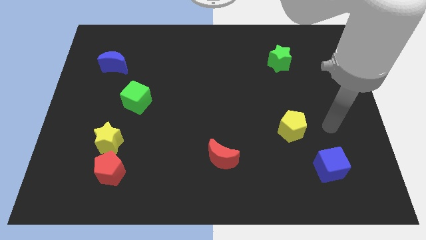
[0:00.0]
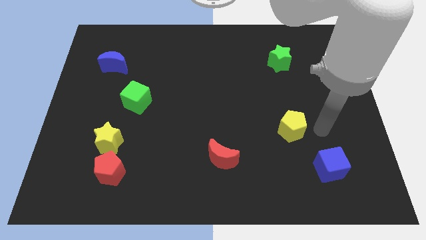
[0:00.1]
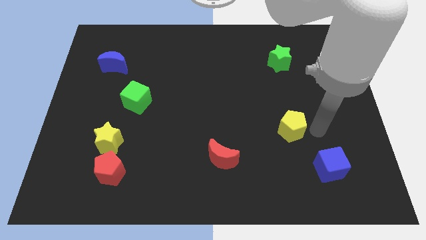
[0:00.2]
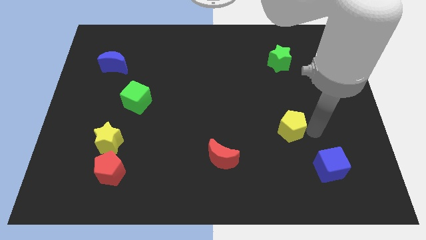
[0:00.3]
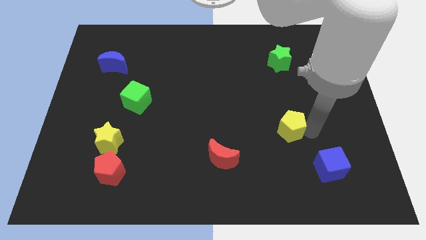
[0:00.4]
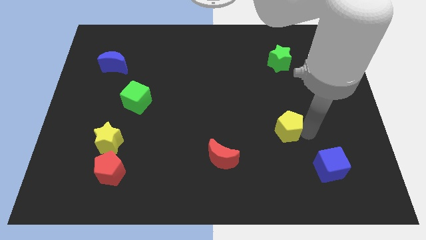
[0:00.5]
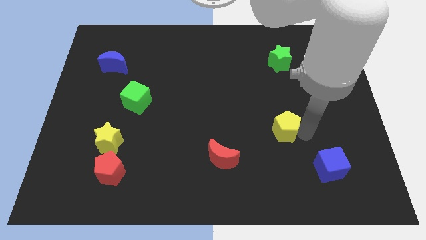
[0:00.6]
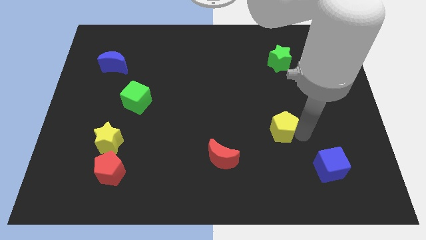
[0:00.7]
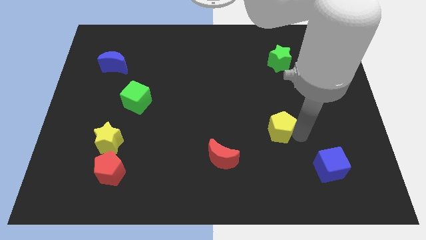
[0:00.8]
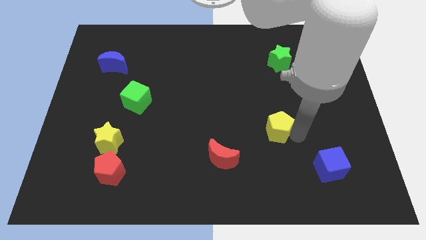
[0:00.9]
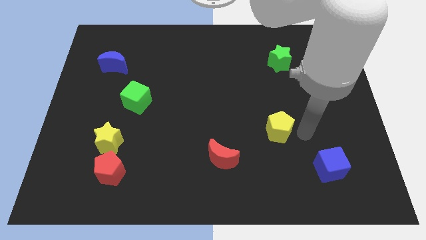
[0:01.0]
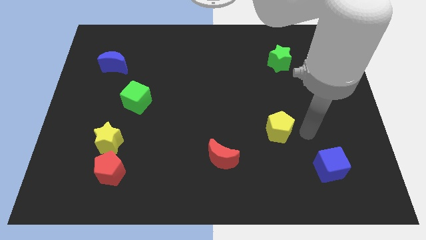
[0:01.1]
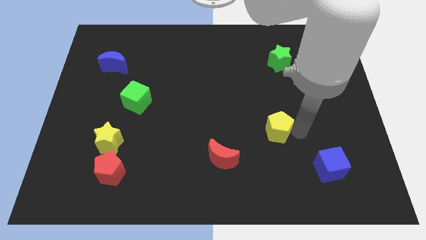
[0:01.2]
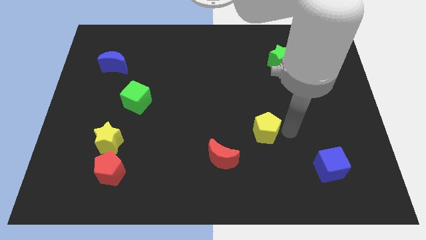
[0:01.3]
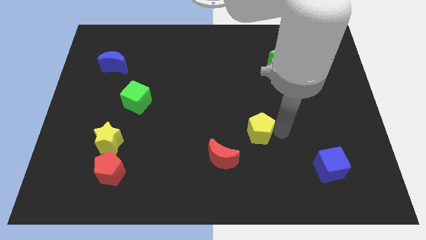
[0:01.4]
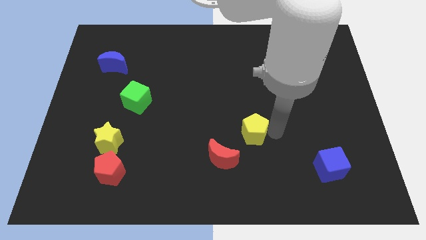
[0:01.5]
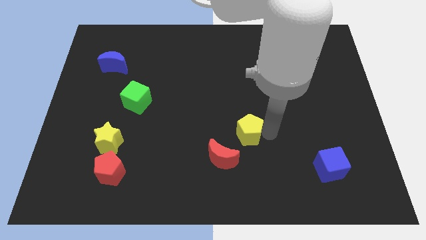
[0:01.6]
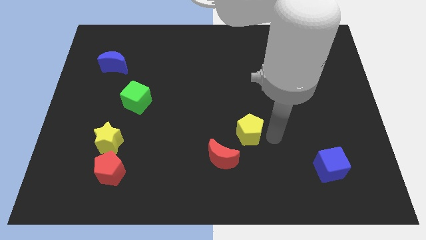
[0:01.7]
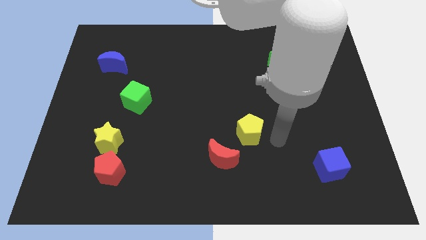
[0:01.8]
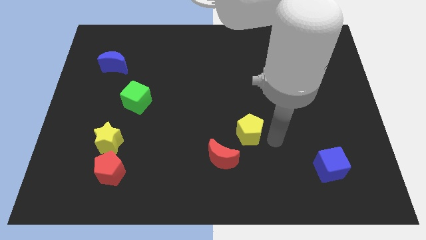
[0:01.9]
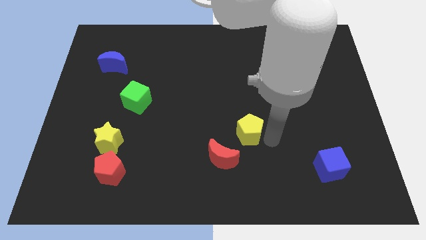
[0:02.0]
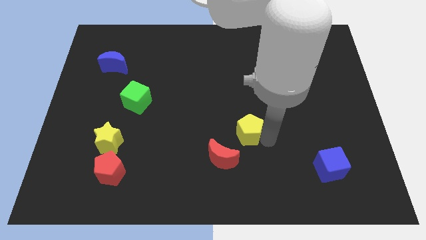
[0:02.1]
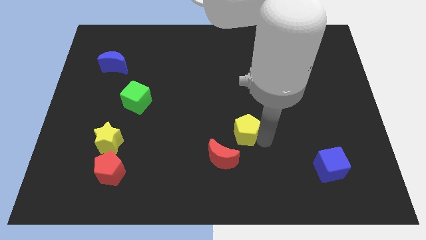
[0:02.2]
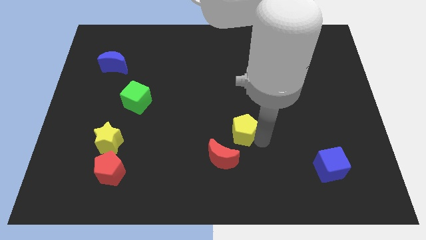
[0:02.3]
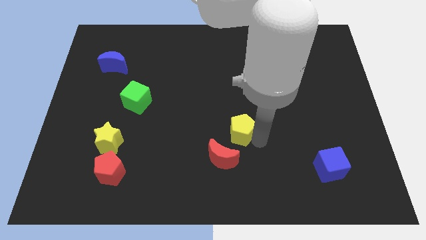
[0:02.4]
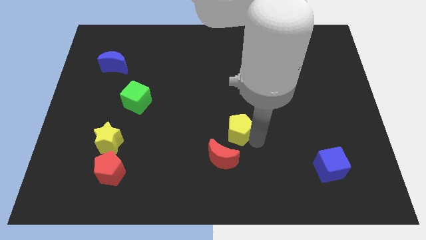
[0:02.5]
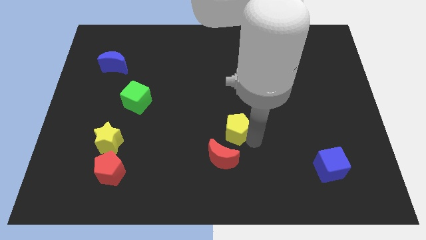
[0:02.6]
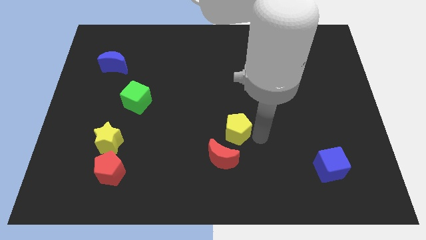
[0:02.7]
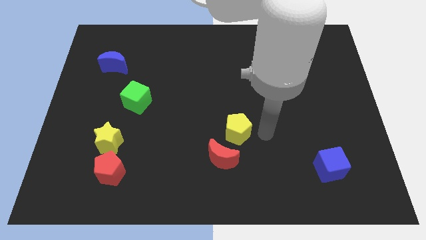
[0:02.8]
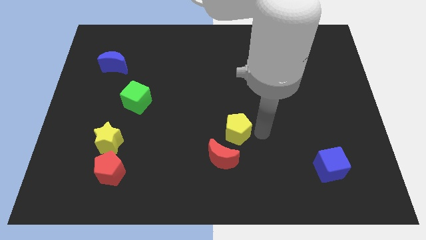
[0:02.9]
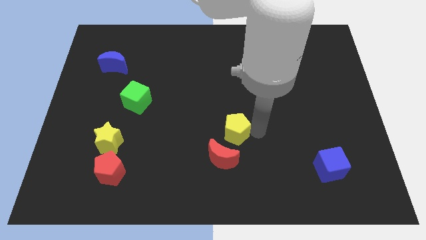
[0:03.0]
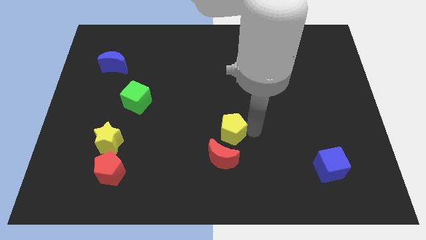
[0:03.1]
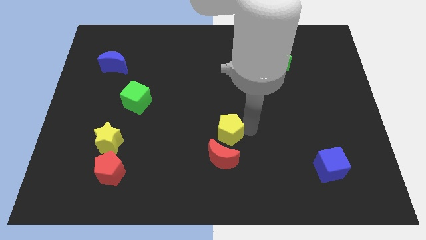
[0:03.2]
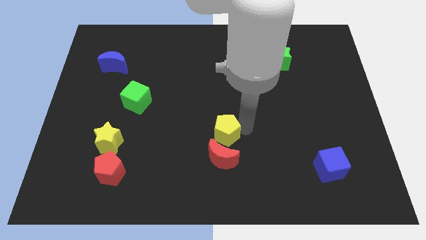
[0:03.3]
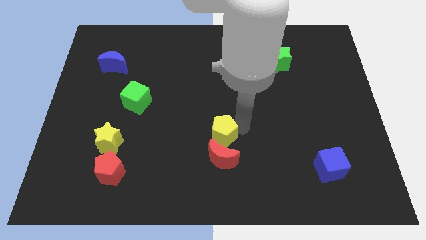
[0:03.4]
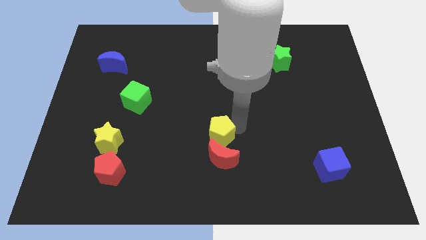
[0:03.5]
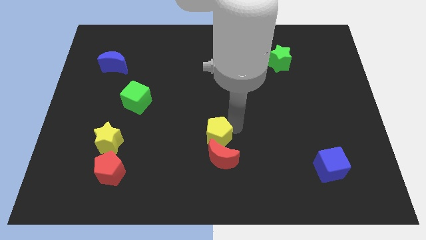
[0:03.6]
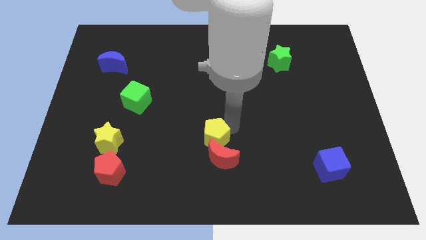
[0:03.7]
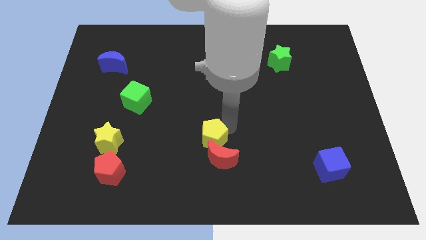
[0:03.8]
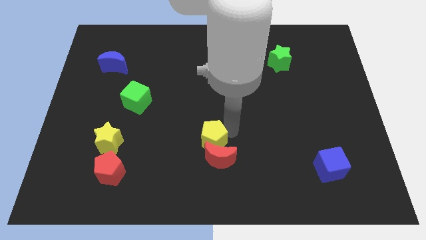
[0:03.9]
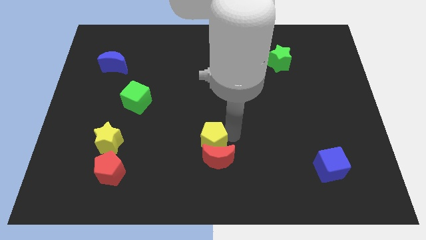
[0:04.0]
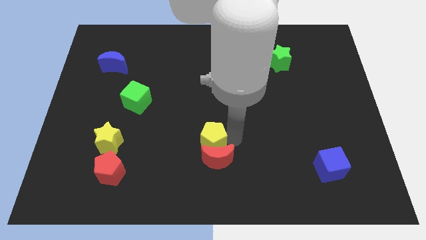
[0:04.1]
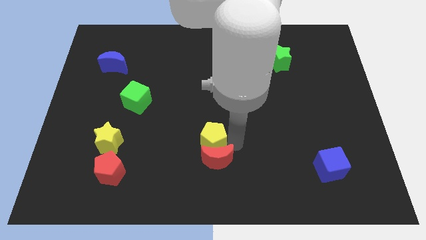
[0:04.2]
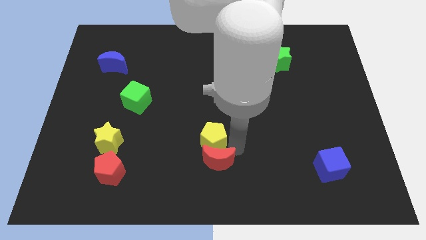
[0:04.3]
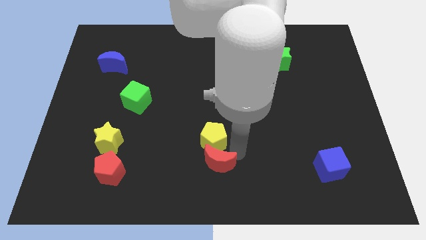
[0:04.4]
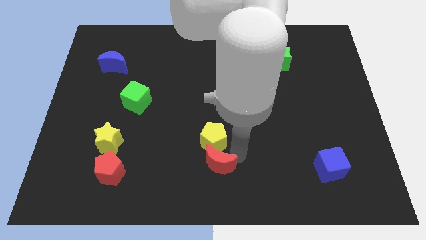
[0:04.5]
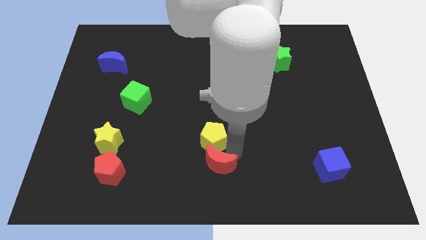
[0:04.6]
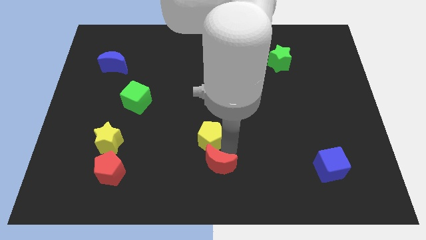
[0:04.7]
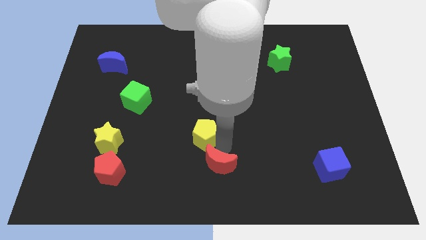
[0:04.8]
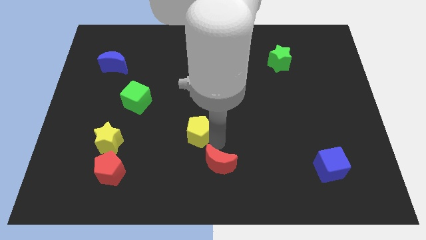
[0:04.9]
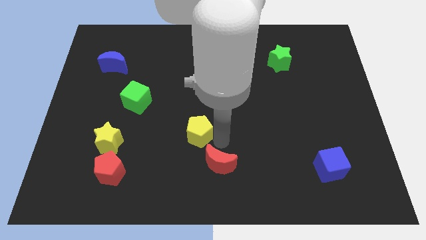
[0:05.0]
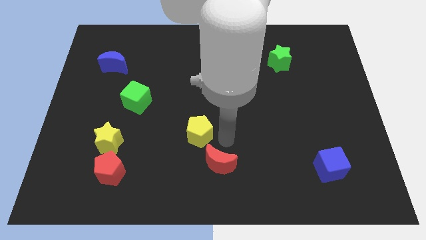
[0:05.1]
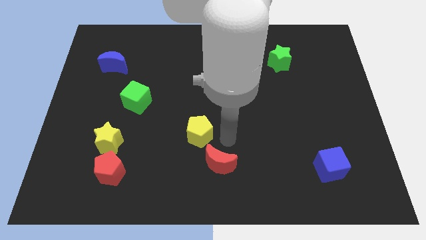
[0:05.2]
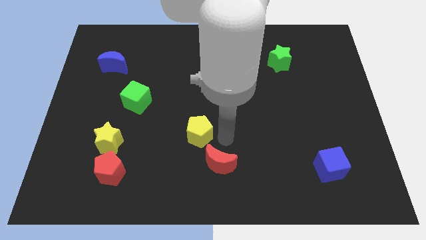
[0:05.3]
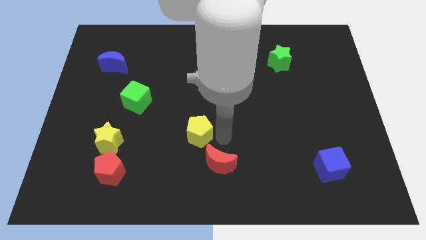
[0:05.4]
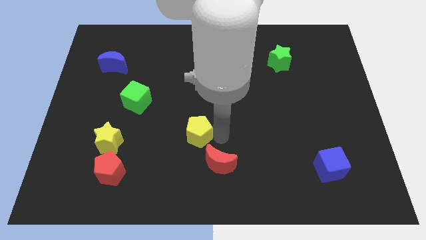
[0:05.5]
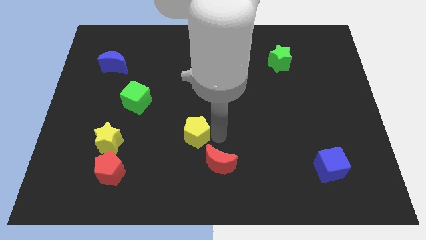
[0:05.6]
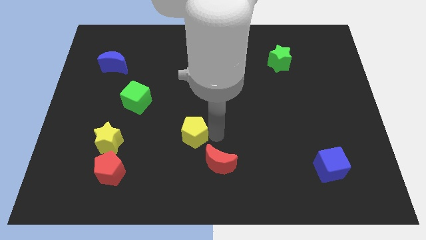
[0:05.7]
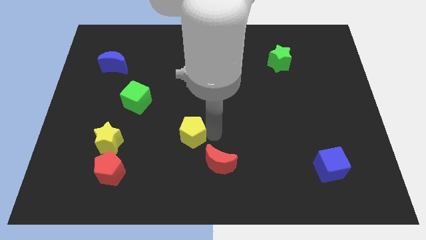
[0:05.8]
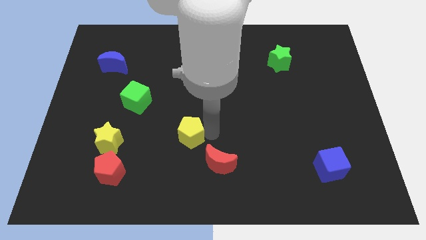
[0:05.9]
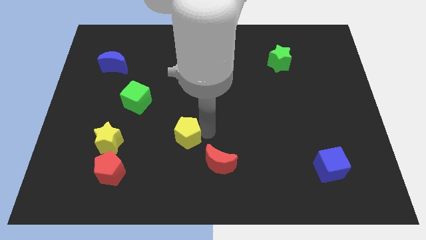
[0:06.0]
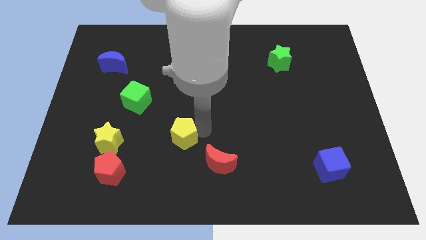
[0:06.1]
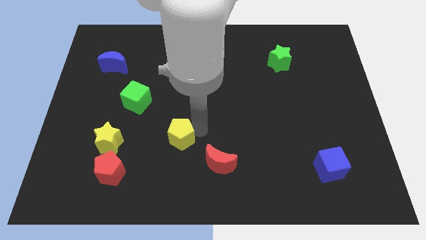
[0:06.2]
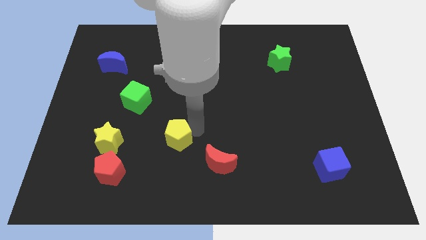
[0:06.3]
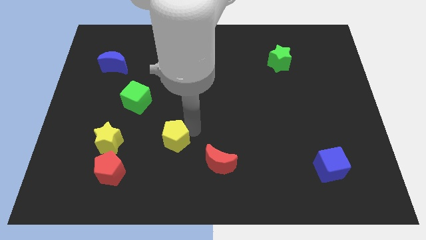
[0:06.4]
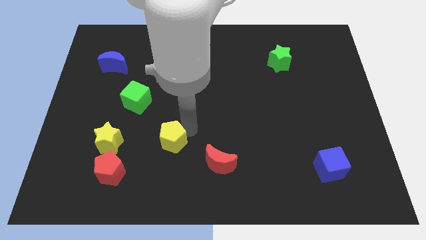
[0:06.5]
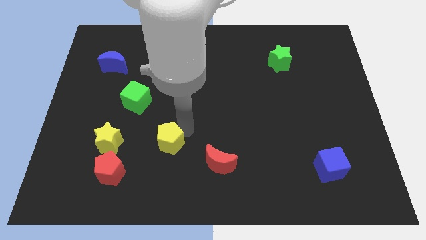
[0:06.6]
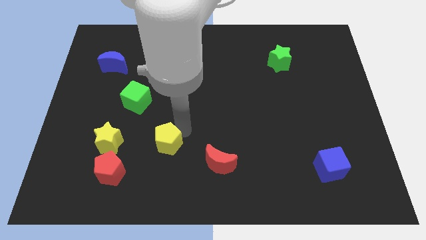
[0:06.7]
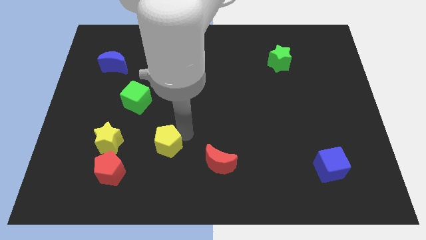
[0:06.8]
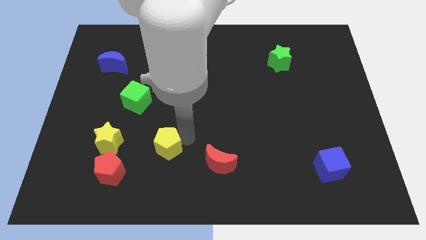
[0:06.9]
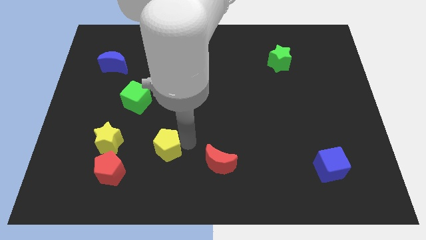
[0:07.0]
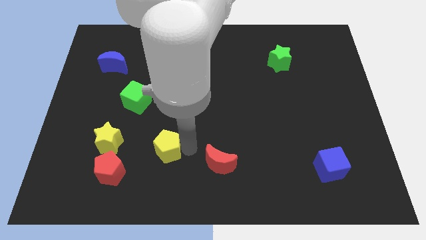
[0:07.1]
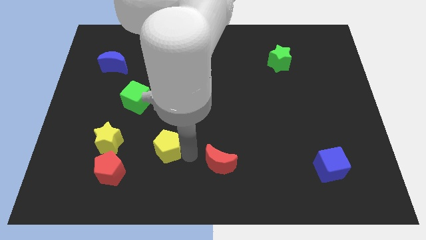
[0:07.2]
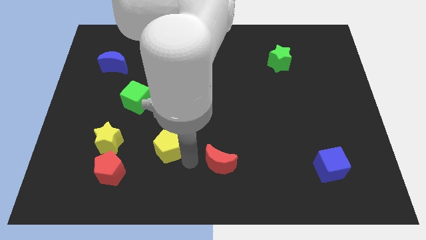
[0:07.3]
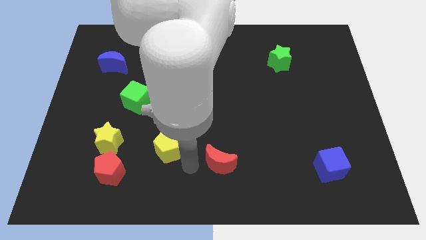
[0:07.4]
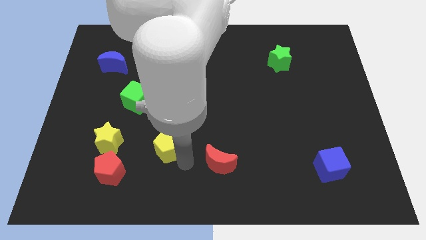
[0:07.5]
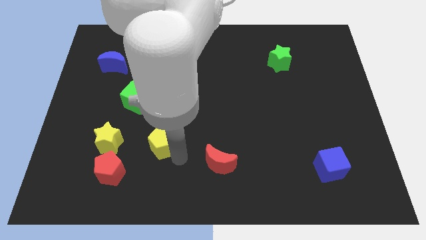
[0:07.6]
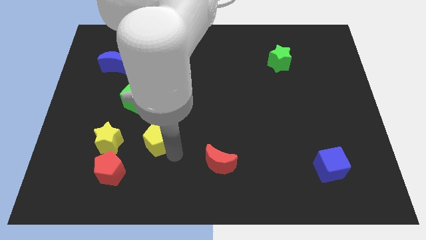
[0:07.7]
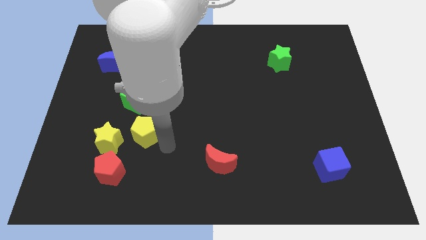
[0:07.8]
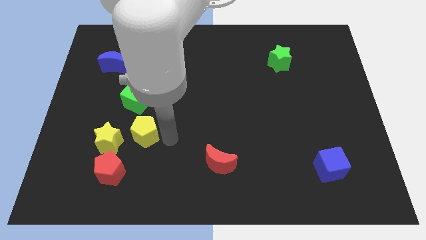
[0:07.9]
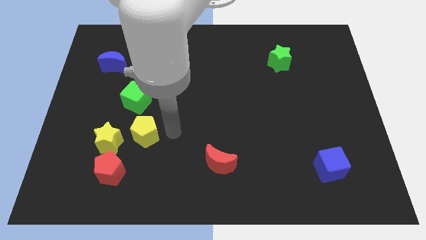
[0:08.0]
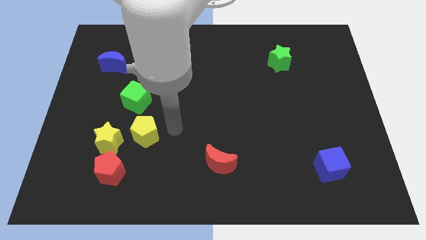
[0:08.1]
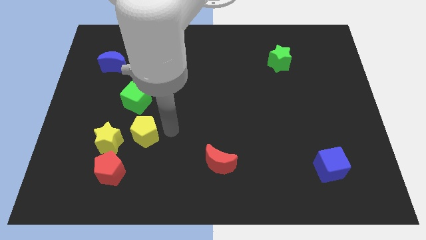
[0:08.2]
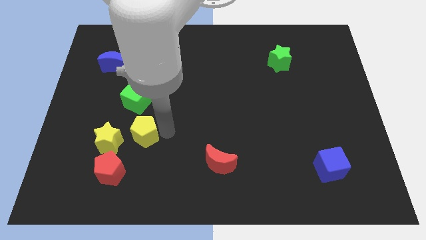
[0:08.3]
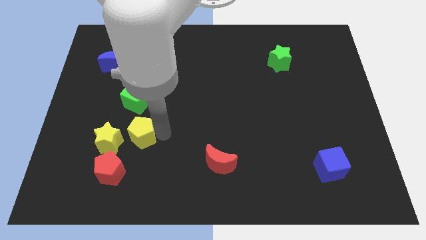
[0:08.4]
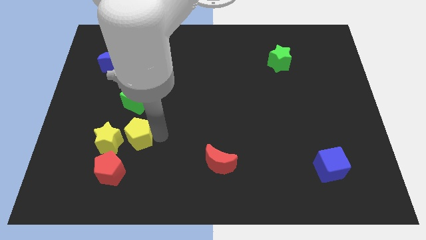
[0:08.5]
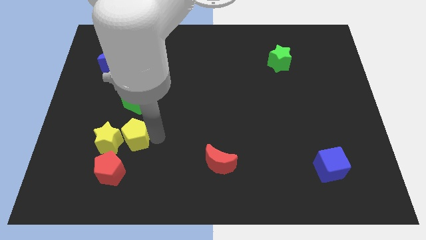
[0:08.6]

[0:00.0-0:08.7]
put the yellow pentagon next to the yellow star
